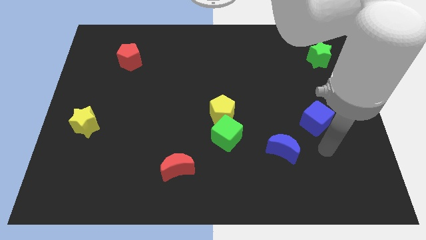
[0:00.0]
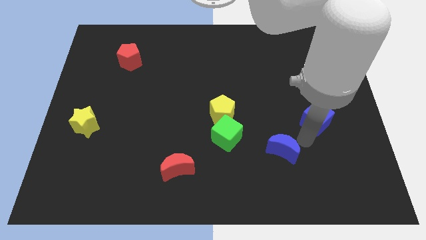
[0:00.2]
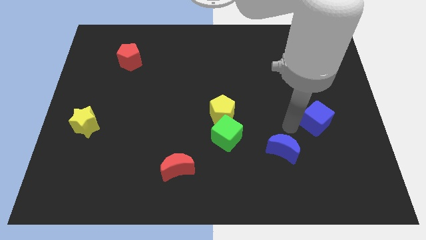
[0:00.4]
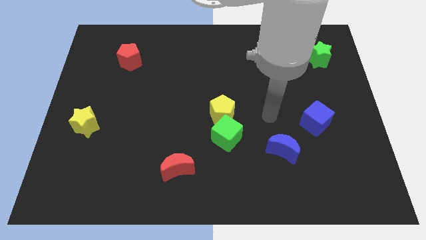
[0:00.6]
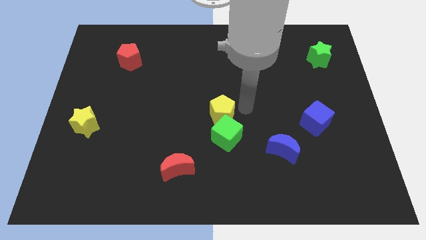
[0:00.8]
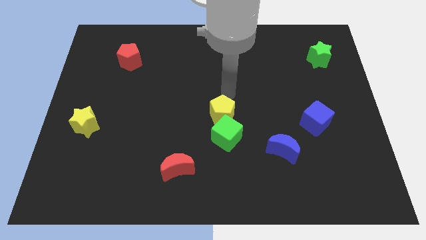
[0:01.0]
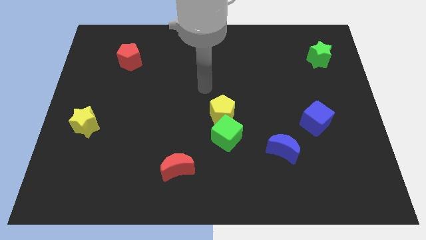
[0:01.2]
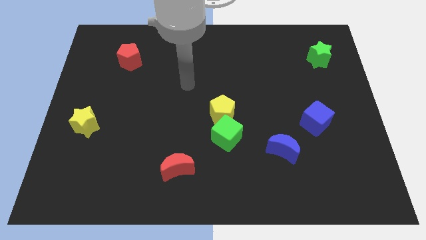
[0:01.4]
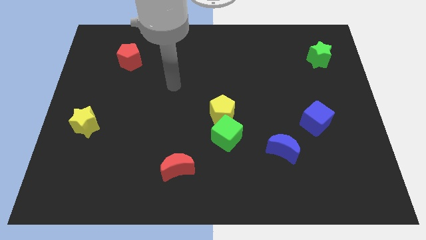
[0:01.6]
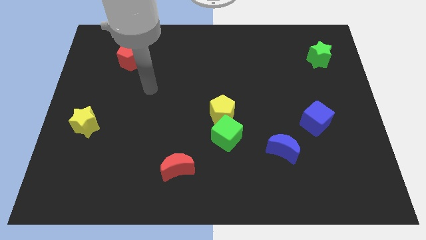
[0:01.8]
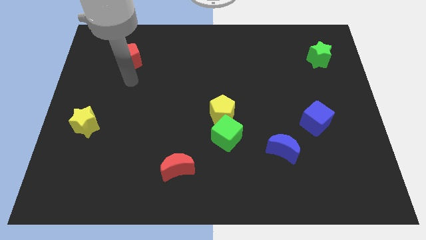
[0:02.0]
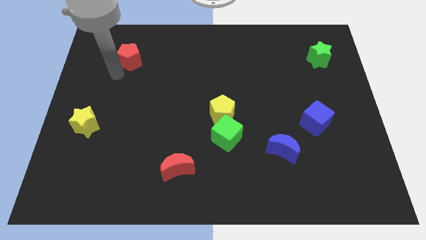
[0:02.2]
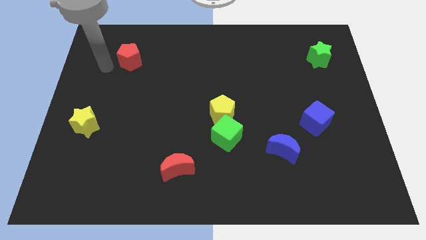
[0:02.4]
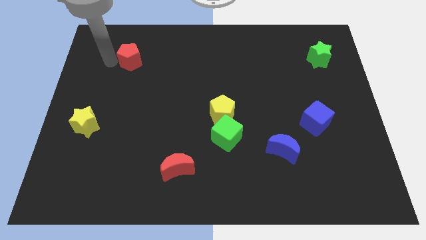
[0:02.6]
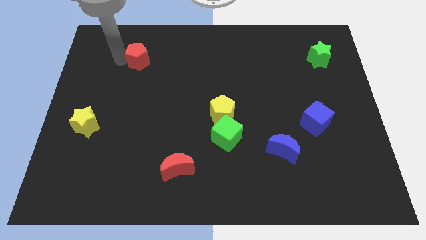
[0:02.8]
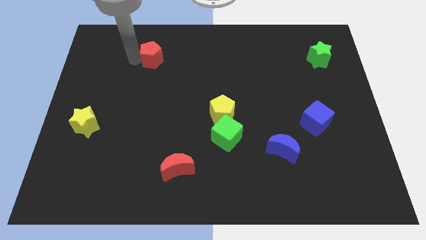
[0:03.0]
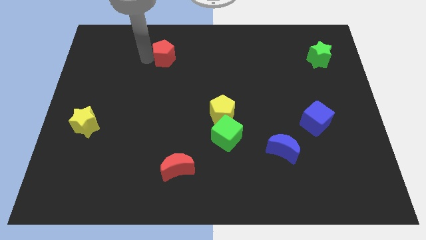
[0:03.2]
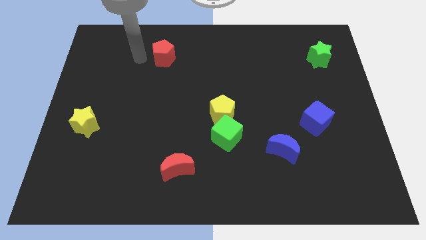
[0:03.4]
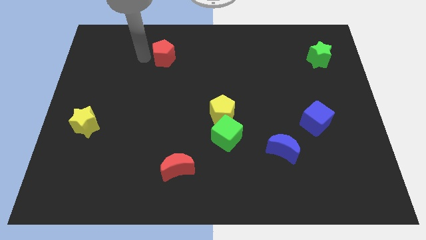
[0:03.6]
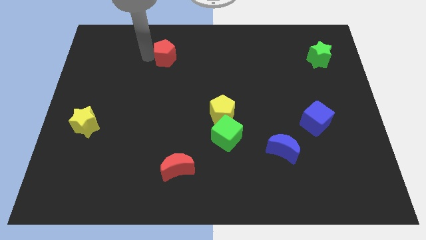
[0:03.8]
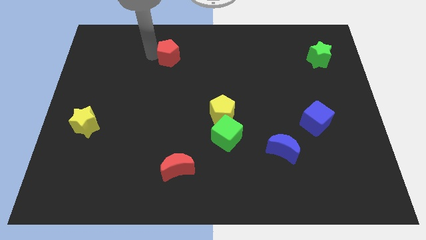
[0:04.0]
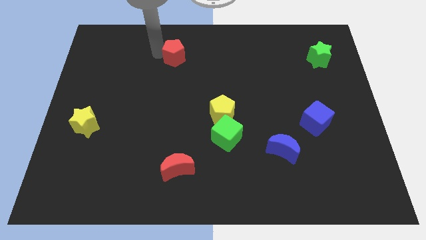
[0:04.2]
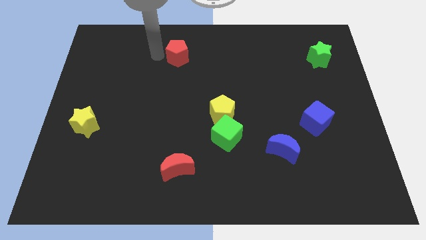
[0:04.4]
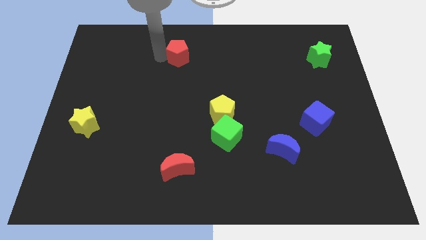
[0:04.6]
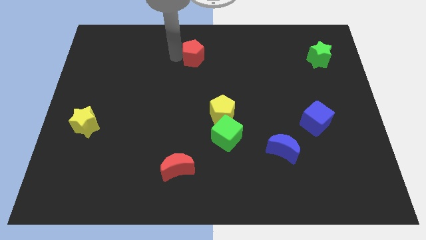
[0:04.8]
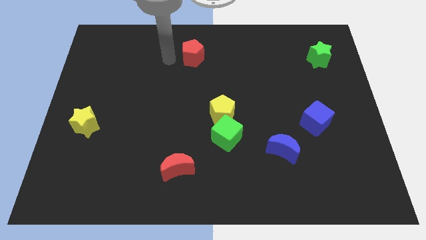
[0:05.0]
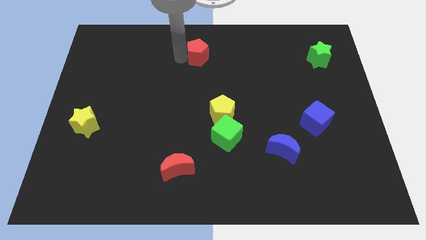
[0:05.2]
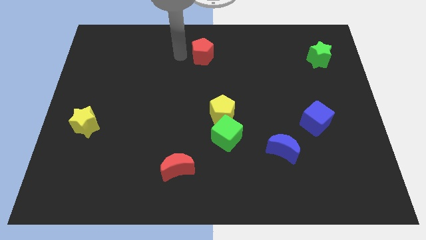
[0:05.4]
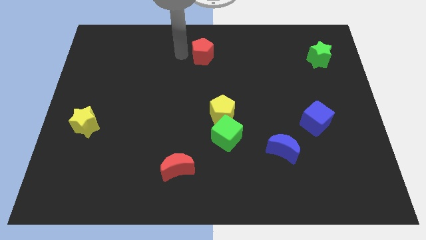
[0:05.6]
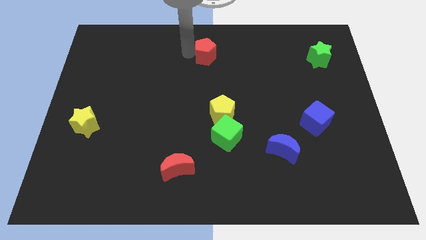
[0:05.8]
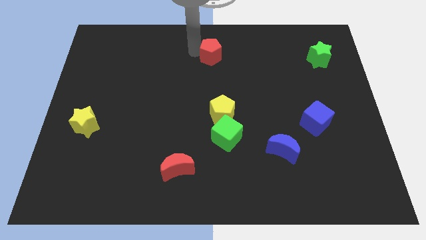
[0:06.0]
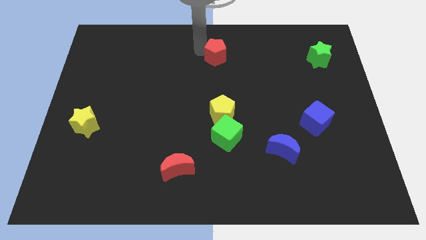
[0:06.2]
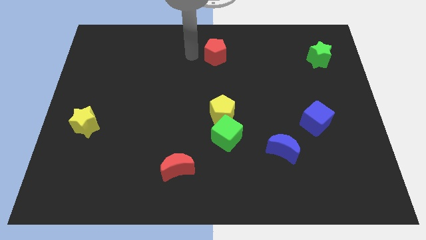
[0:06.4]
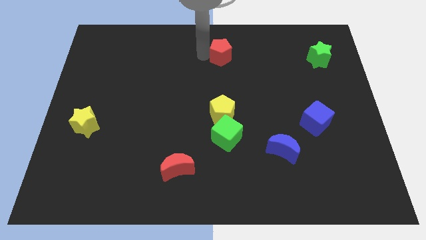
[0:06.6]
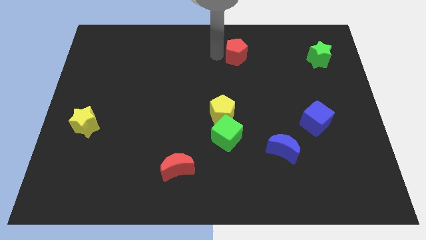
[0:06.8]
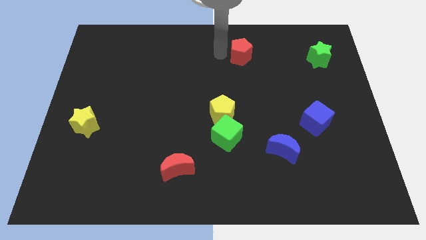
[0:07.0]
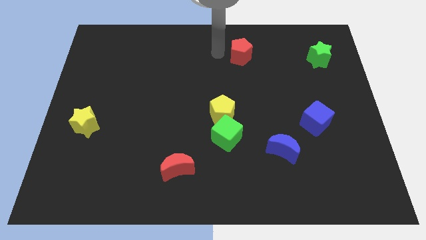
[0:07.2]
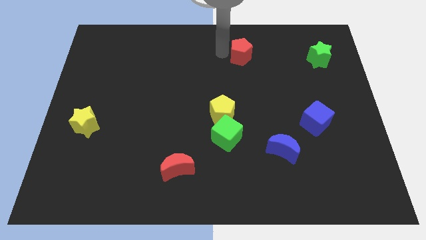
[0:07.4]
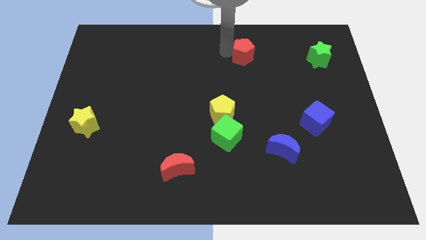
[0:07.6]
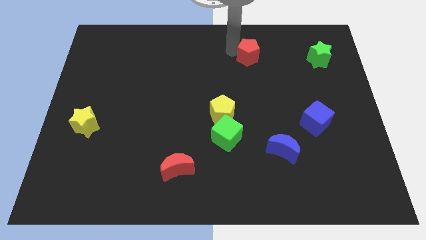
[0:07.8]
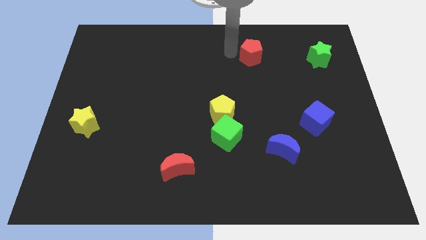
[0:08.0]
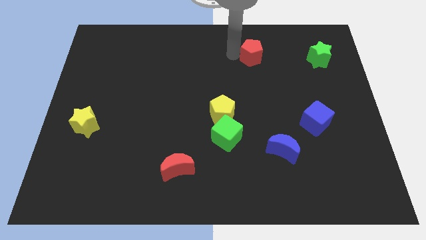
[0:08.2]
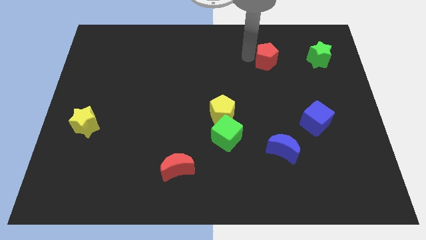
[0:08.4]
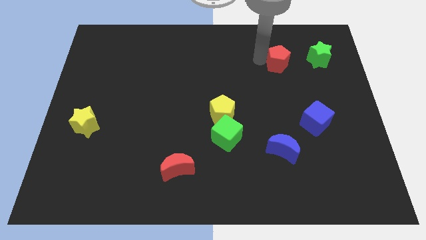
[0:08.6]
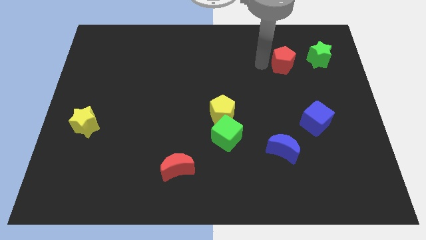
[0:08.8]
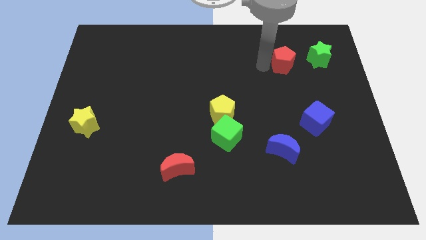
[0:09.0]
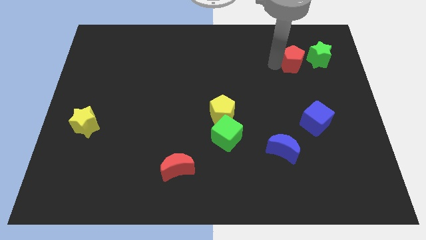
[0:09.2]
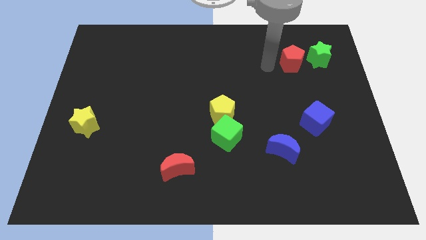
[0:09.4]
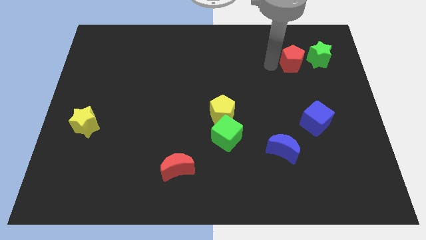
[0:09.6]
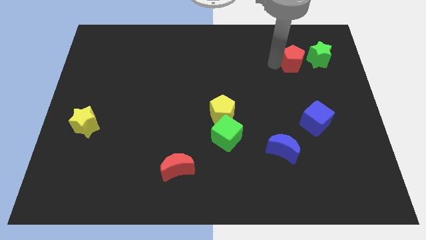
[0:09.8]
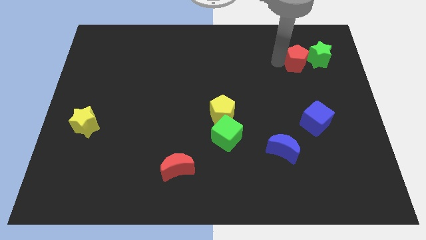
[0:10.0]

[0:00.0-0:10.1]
put the red pentagon close to the green star

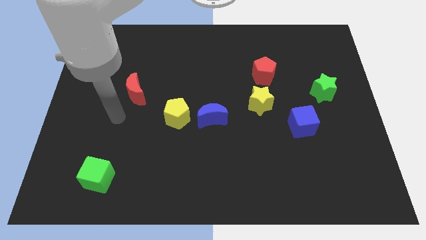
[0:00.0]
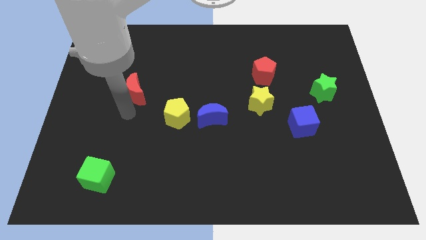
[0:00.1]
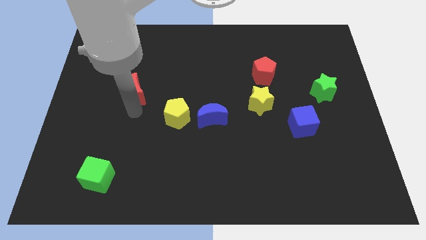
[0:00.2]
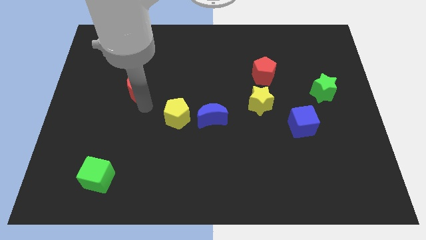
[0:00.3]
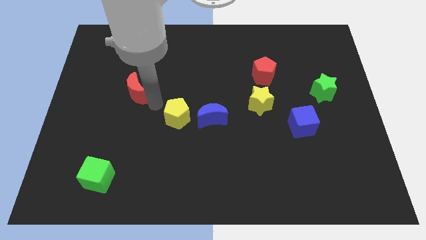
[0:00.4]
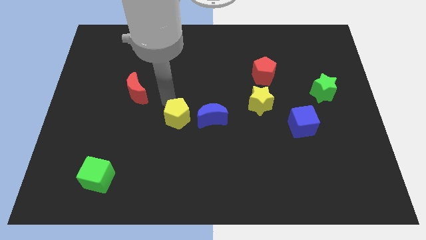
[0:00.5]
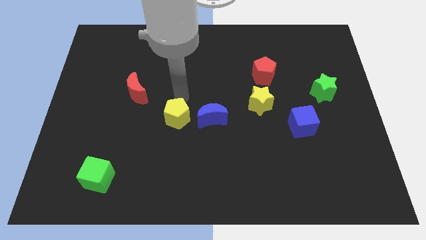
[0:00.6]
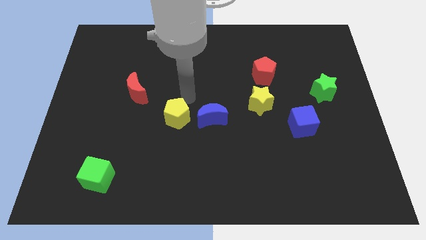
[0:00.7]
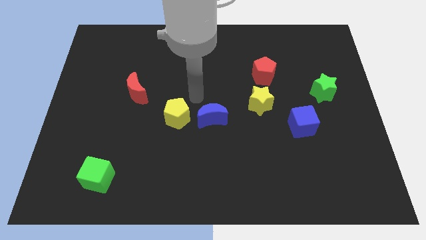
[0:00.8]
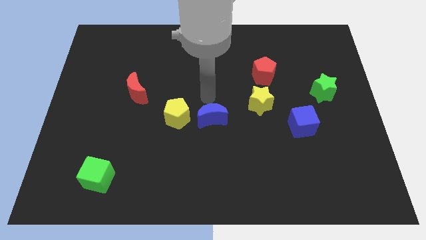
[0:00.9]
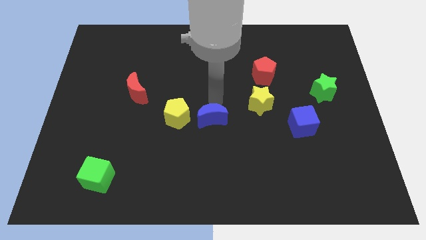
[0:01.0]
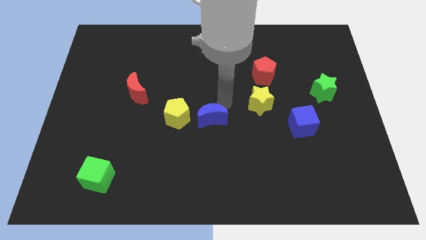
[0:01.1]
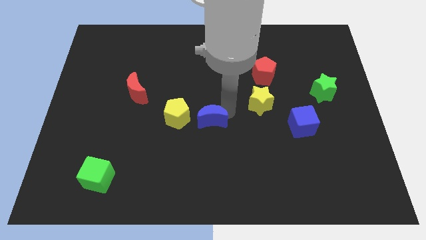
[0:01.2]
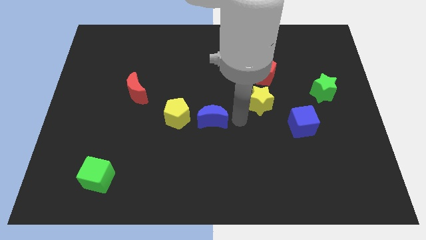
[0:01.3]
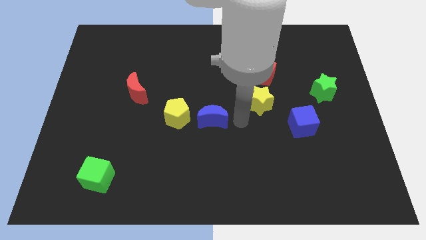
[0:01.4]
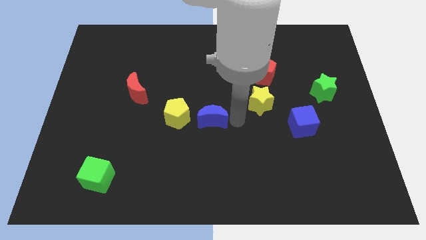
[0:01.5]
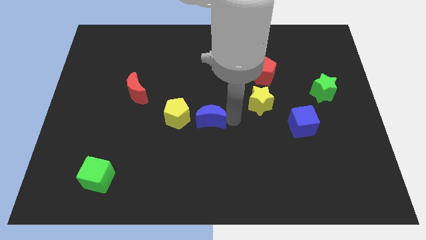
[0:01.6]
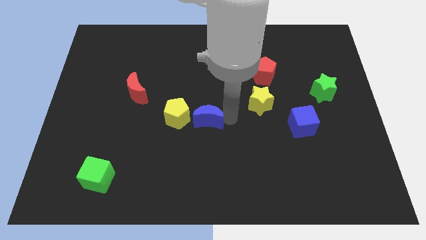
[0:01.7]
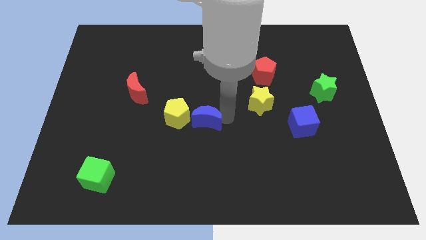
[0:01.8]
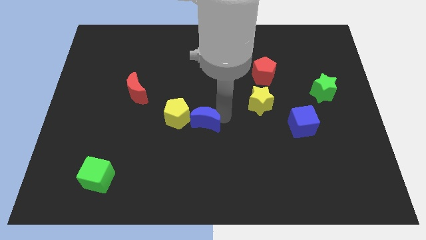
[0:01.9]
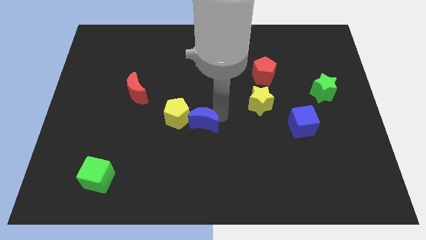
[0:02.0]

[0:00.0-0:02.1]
slide the blue moon next to the yellow pentagon
